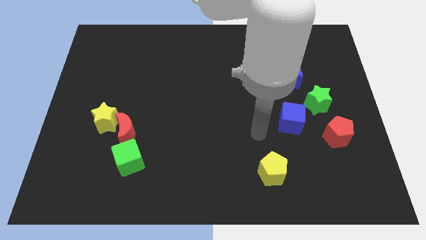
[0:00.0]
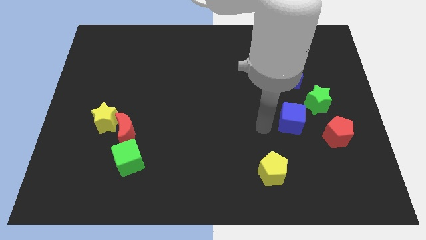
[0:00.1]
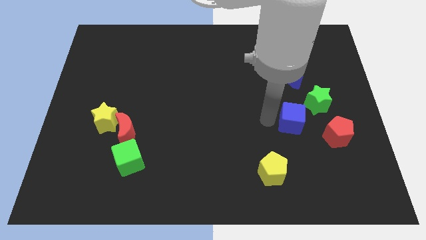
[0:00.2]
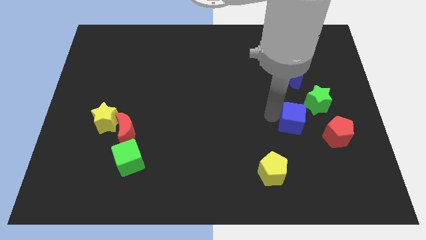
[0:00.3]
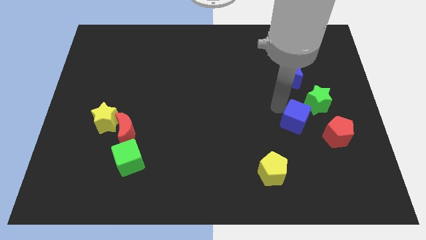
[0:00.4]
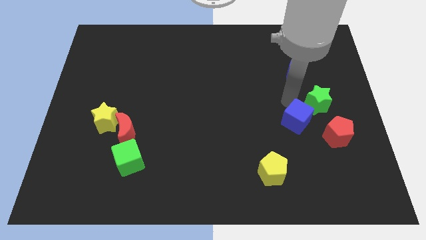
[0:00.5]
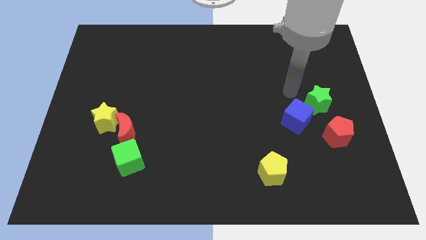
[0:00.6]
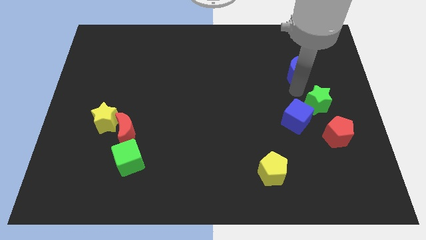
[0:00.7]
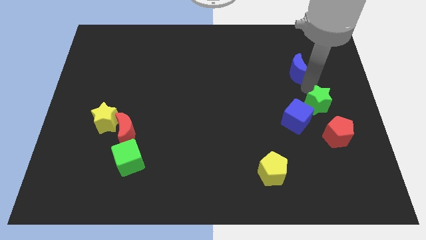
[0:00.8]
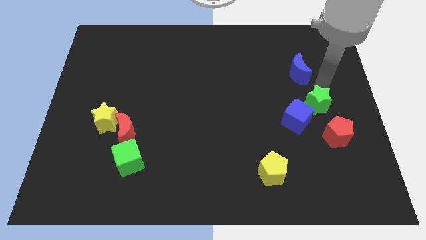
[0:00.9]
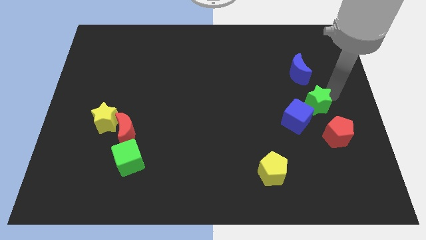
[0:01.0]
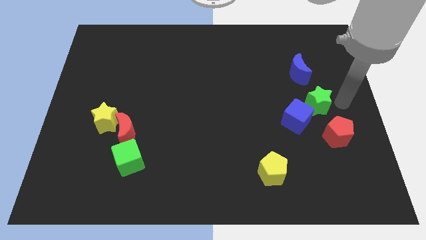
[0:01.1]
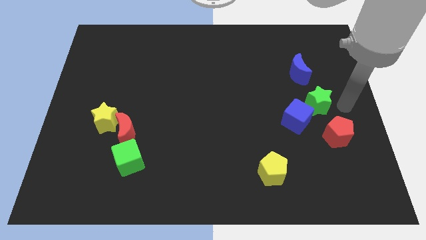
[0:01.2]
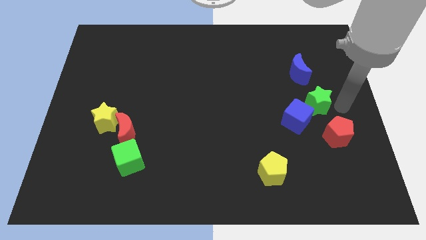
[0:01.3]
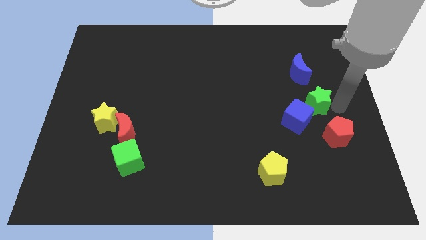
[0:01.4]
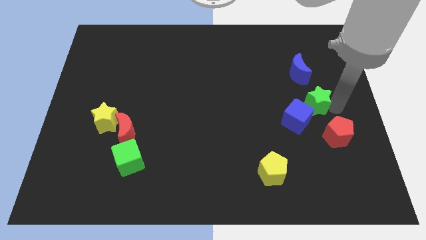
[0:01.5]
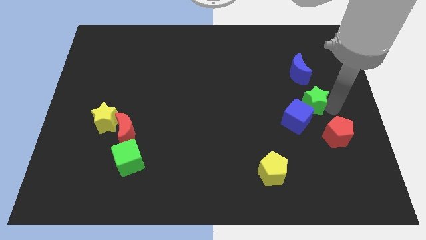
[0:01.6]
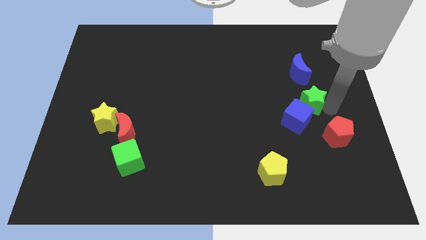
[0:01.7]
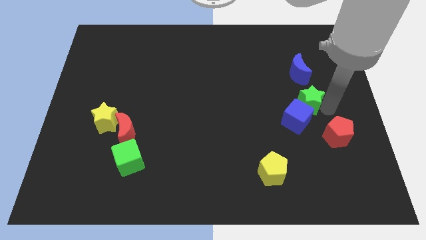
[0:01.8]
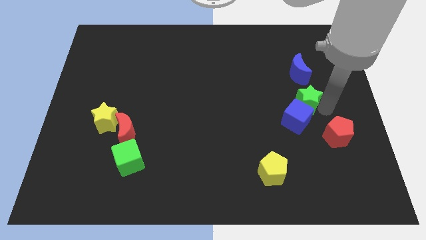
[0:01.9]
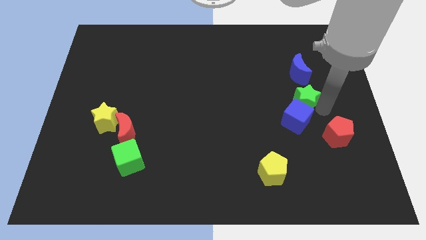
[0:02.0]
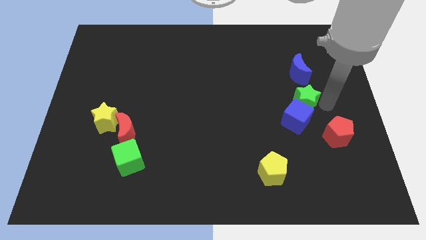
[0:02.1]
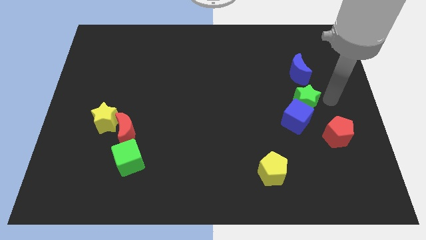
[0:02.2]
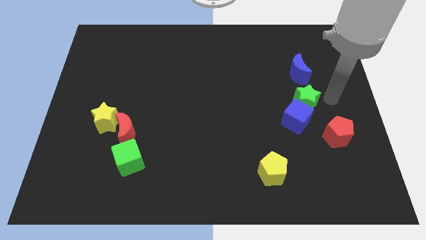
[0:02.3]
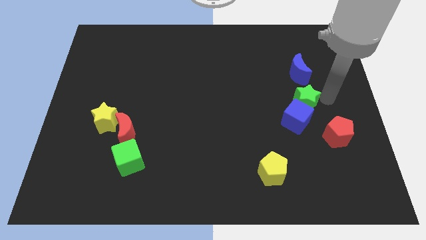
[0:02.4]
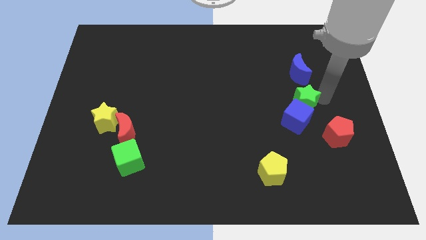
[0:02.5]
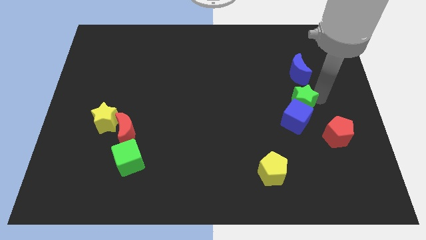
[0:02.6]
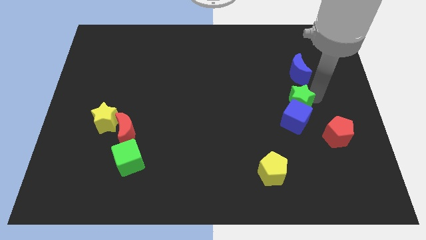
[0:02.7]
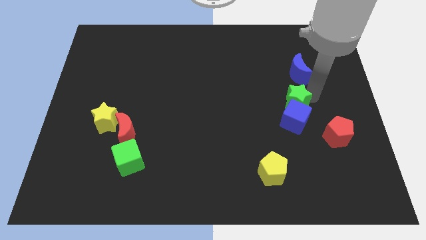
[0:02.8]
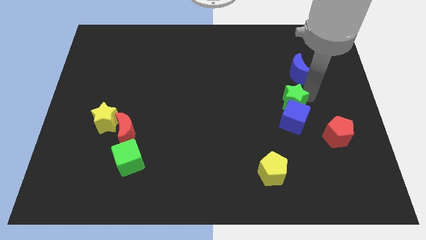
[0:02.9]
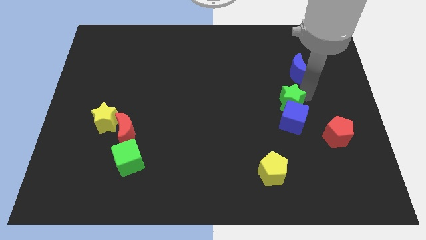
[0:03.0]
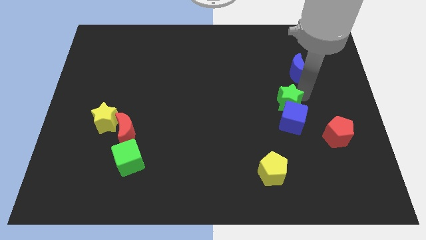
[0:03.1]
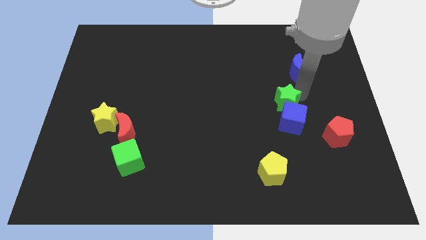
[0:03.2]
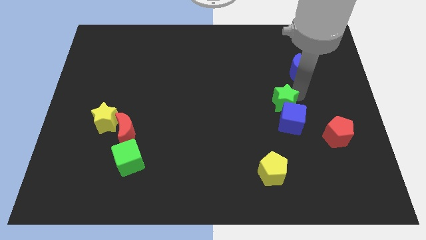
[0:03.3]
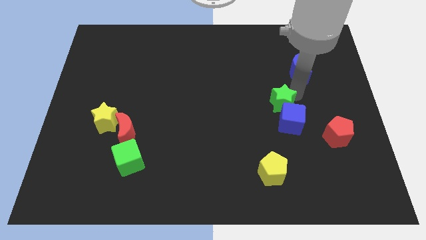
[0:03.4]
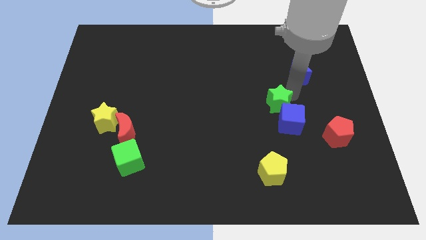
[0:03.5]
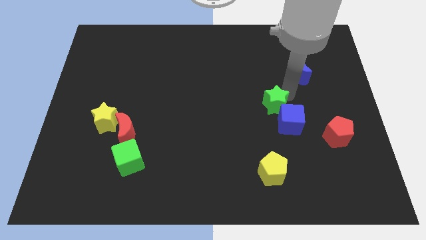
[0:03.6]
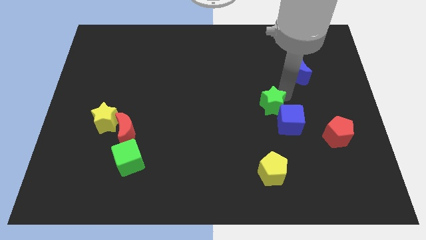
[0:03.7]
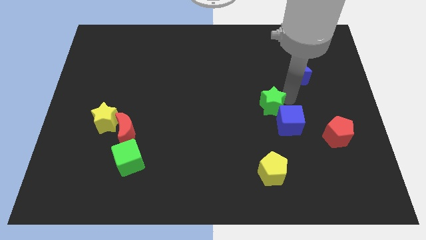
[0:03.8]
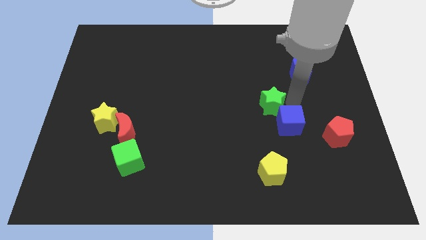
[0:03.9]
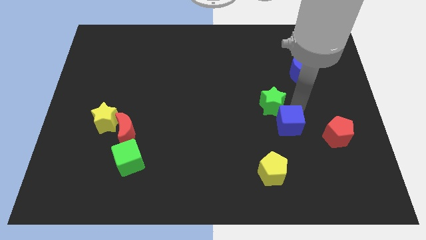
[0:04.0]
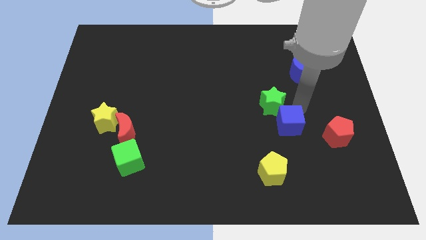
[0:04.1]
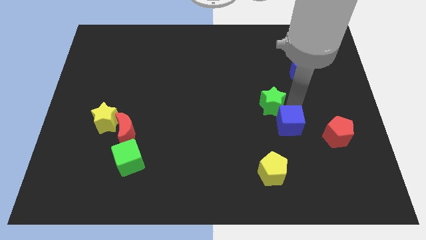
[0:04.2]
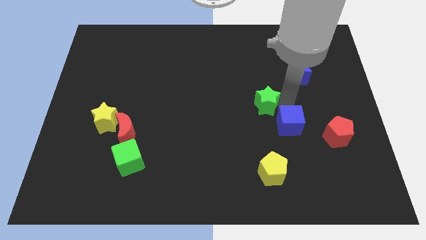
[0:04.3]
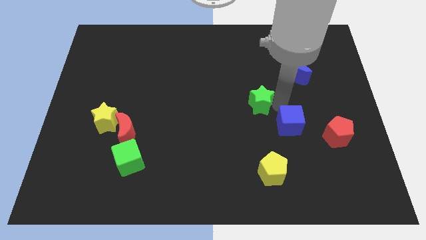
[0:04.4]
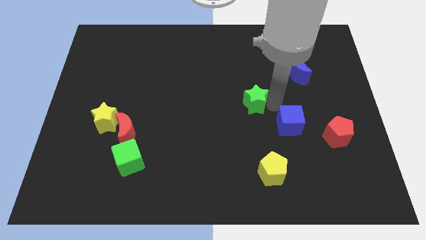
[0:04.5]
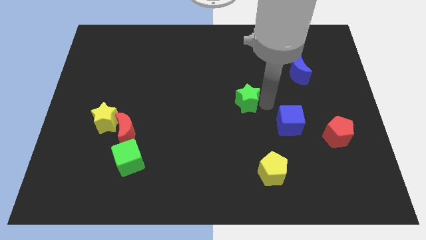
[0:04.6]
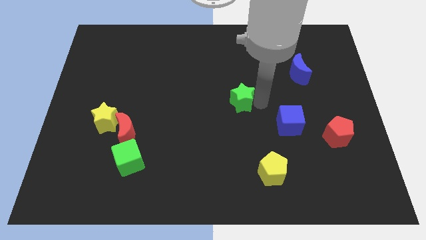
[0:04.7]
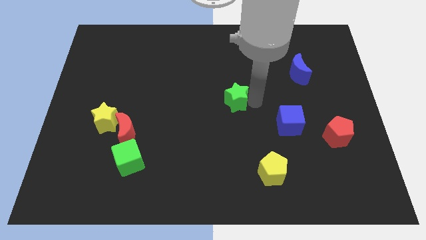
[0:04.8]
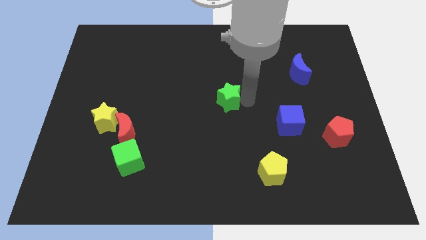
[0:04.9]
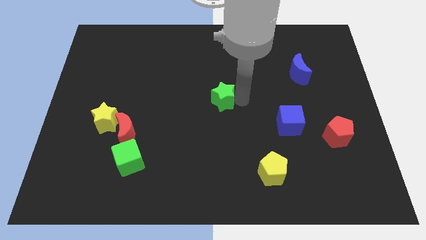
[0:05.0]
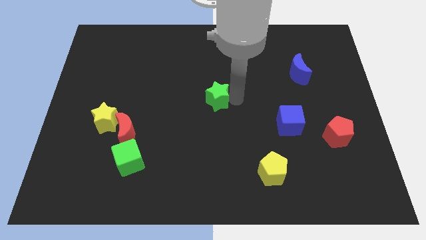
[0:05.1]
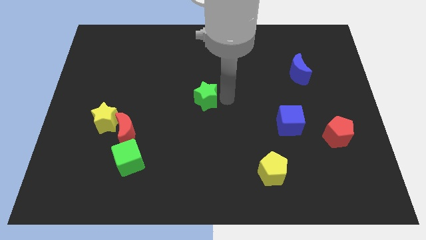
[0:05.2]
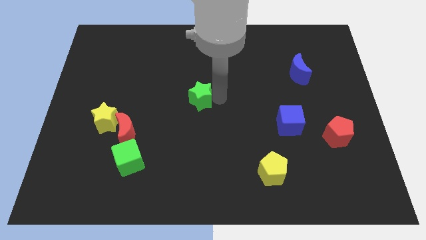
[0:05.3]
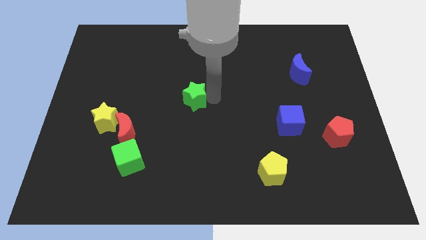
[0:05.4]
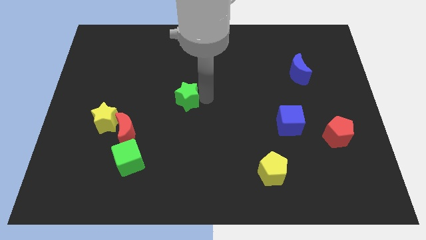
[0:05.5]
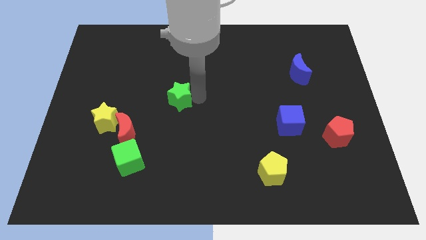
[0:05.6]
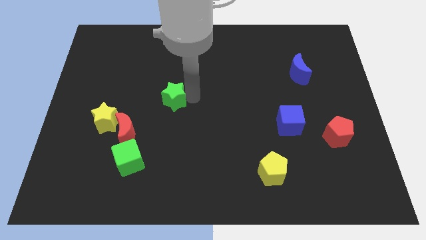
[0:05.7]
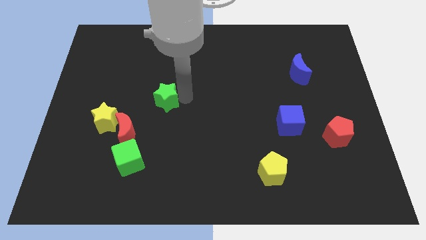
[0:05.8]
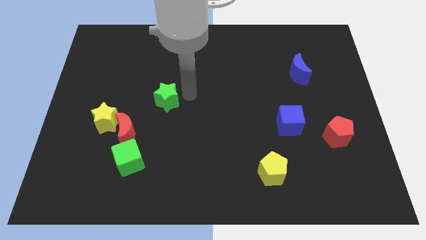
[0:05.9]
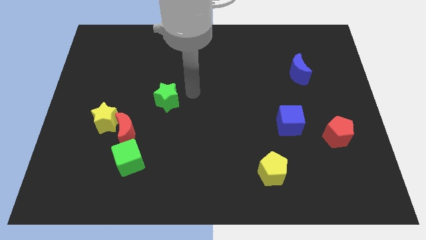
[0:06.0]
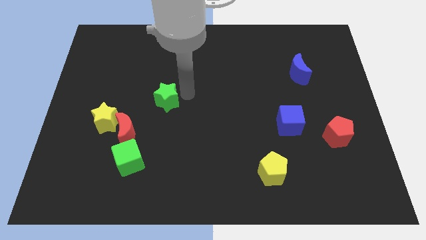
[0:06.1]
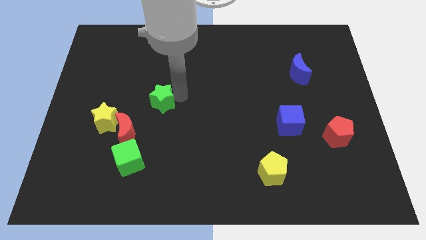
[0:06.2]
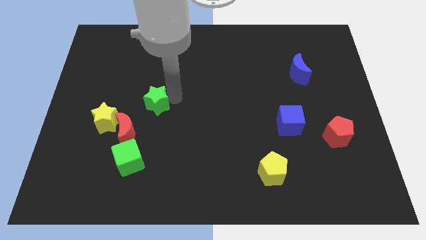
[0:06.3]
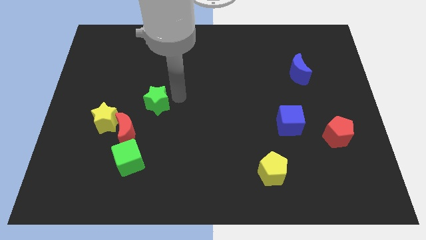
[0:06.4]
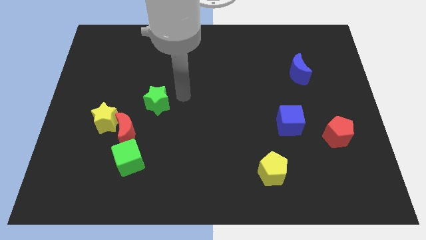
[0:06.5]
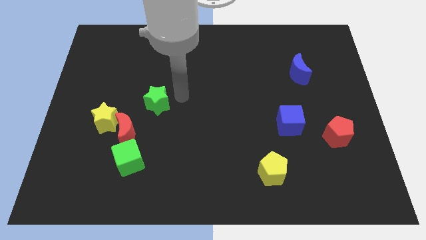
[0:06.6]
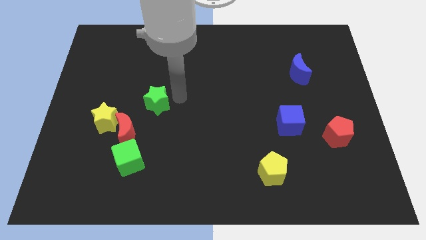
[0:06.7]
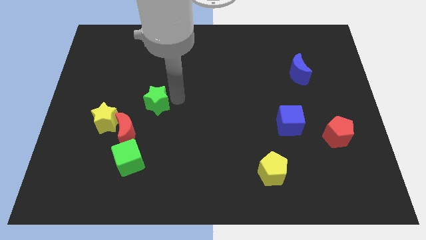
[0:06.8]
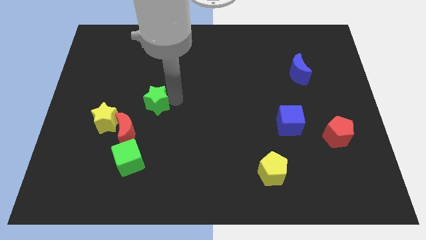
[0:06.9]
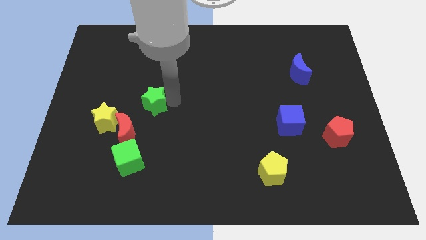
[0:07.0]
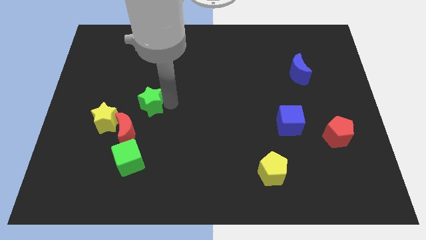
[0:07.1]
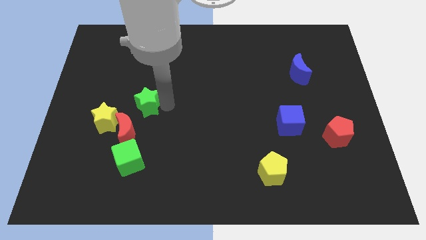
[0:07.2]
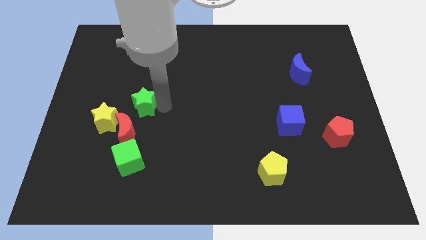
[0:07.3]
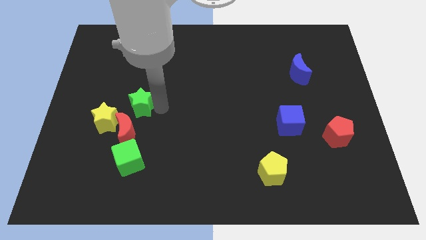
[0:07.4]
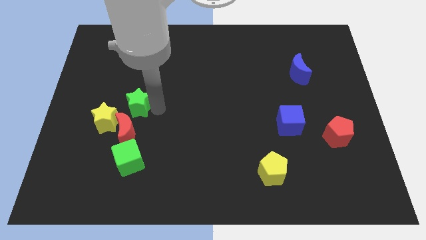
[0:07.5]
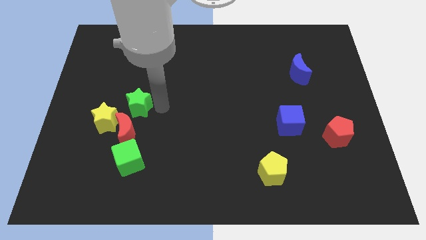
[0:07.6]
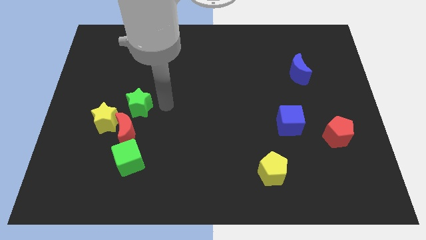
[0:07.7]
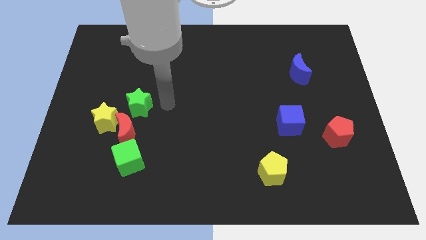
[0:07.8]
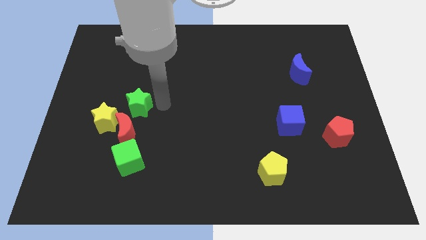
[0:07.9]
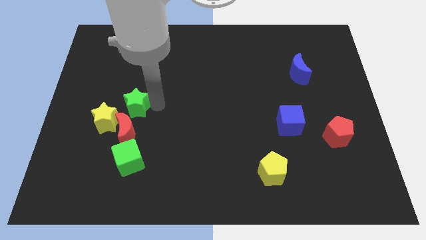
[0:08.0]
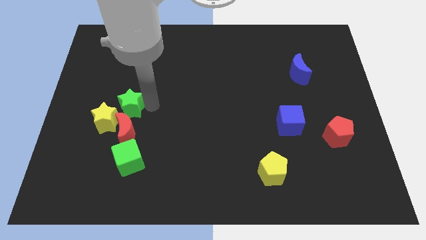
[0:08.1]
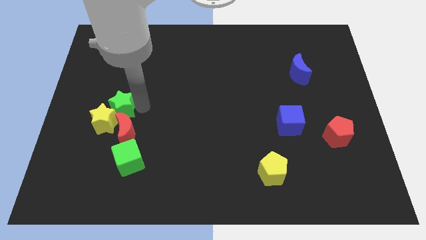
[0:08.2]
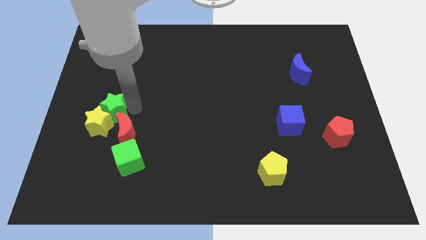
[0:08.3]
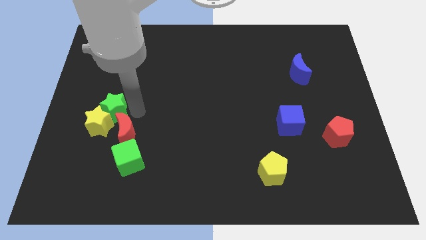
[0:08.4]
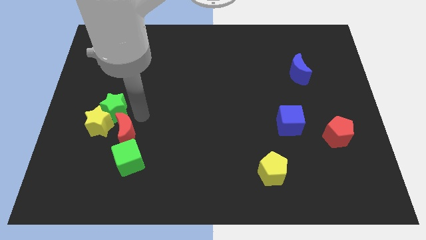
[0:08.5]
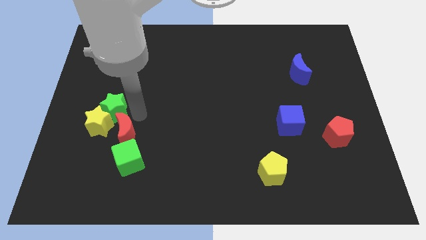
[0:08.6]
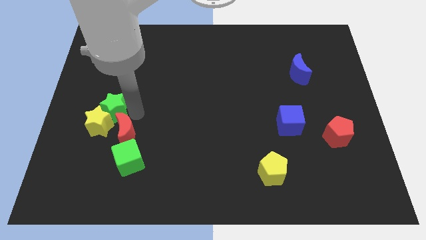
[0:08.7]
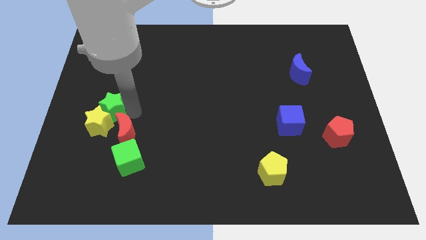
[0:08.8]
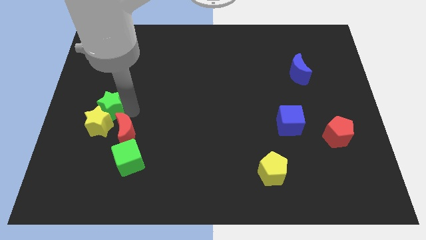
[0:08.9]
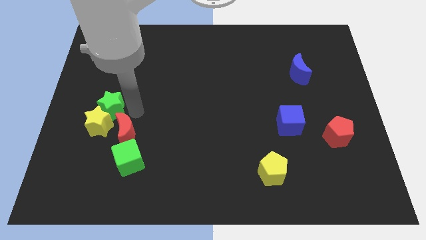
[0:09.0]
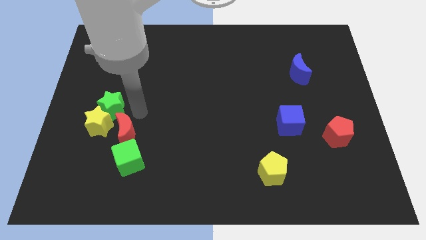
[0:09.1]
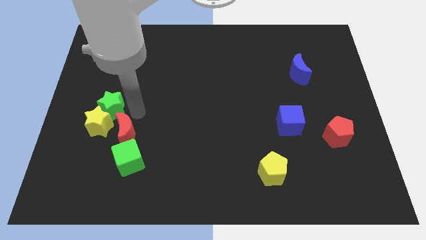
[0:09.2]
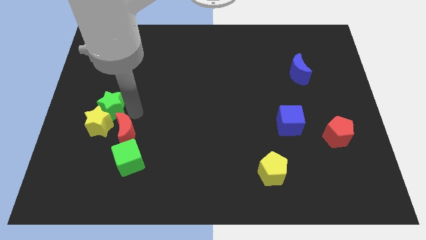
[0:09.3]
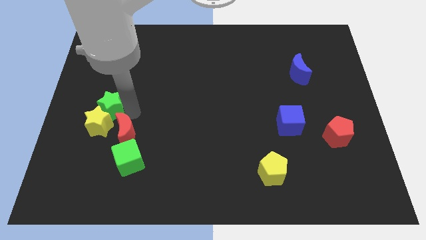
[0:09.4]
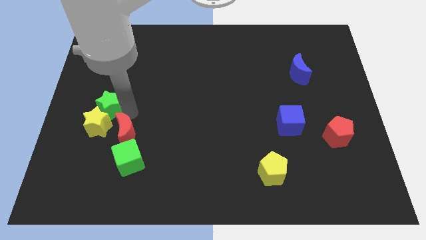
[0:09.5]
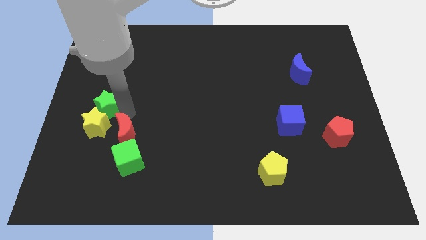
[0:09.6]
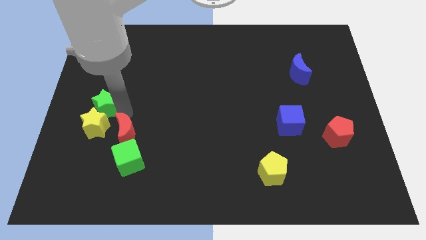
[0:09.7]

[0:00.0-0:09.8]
slide the green star to the left side of the board
